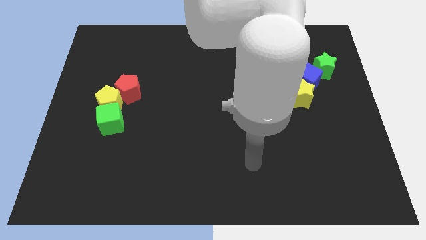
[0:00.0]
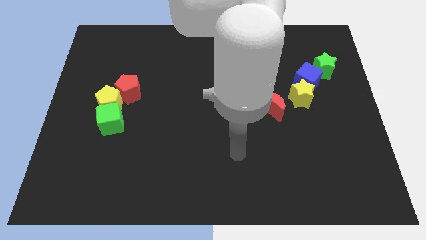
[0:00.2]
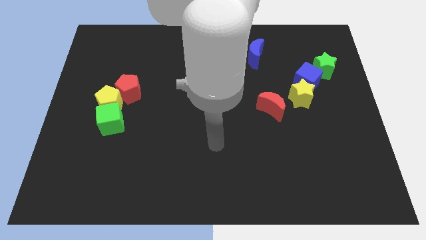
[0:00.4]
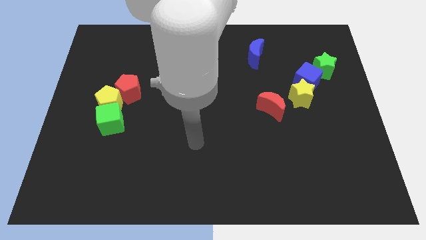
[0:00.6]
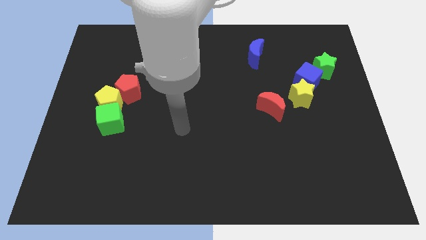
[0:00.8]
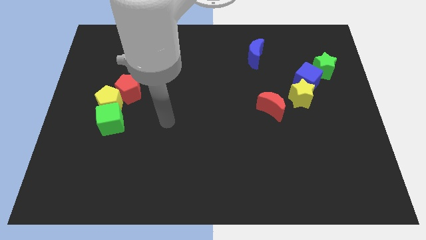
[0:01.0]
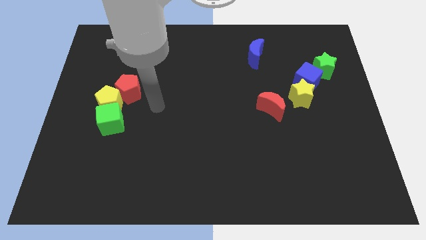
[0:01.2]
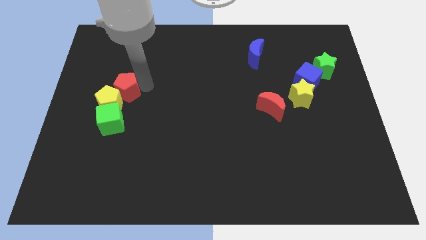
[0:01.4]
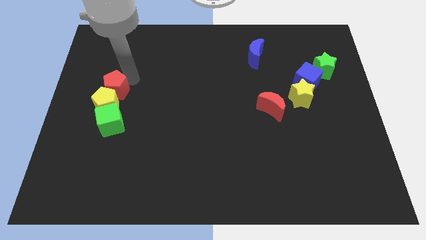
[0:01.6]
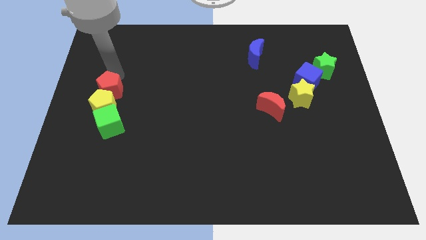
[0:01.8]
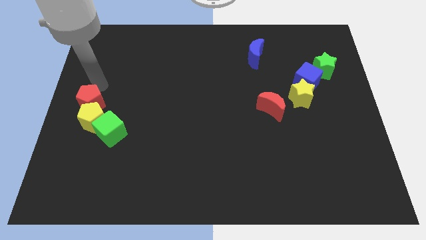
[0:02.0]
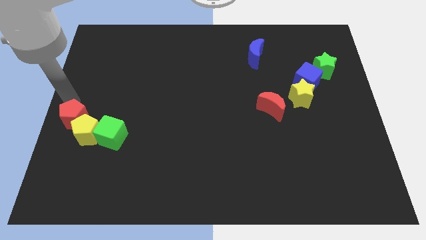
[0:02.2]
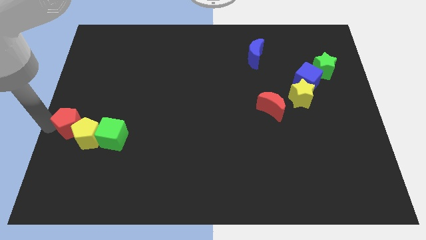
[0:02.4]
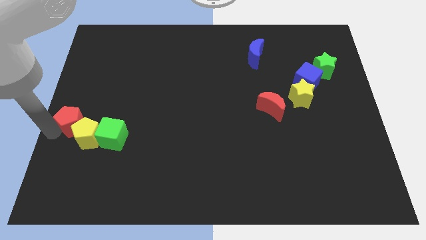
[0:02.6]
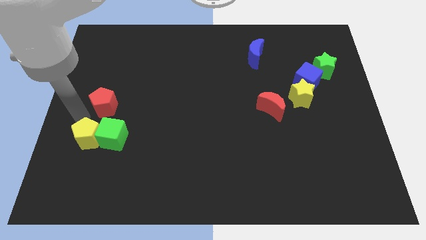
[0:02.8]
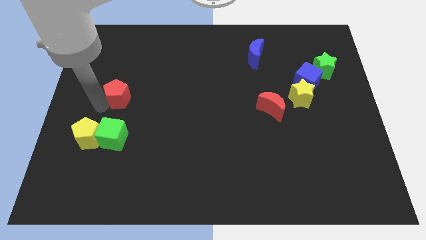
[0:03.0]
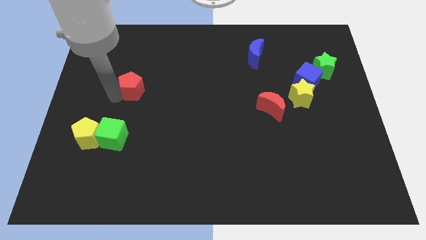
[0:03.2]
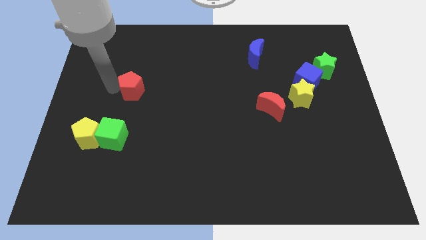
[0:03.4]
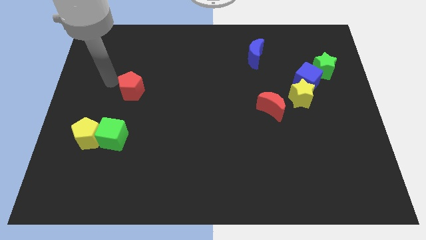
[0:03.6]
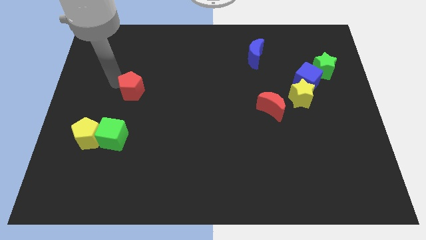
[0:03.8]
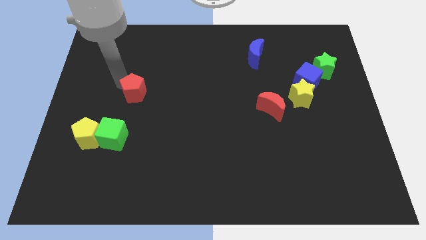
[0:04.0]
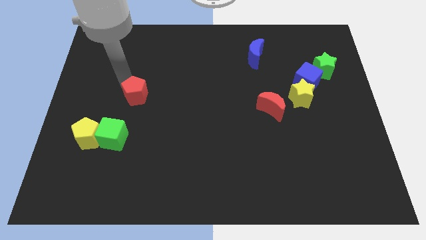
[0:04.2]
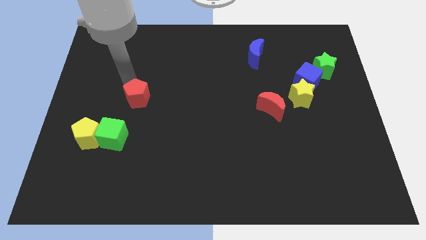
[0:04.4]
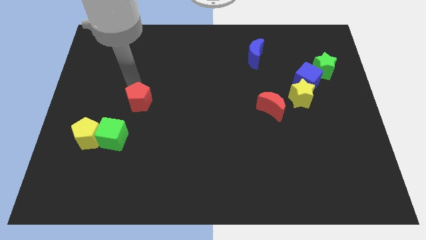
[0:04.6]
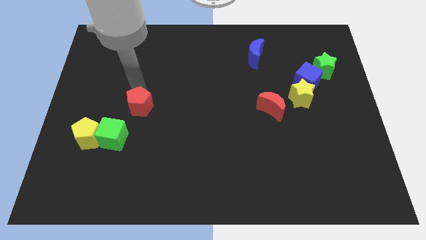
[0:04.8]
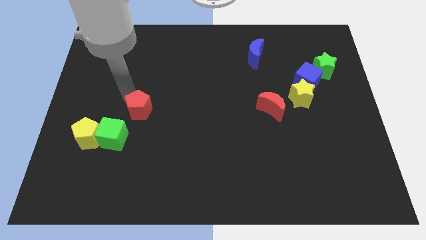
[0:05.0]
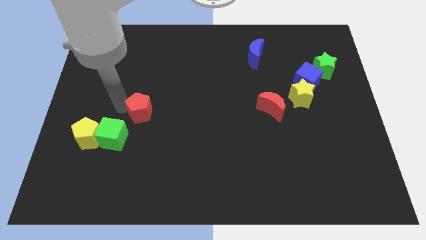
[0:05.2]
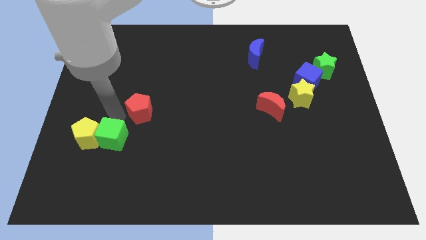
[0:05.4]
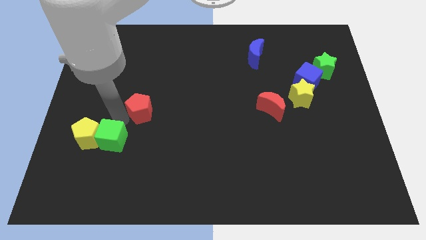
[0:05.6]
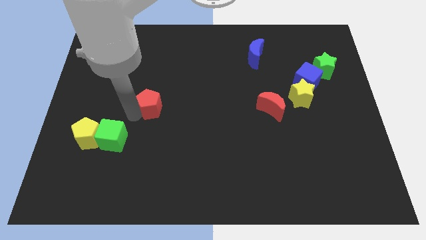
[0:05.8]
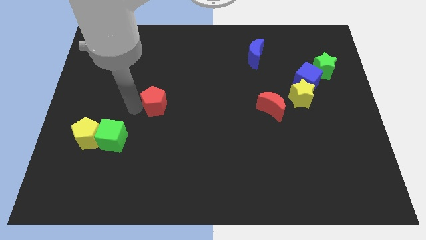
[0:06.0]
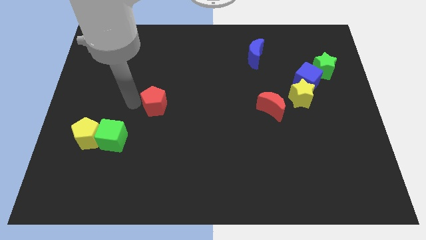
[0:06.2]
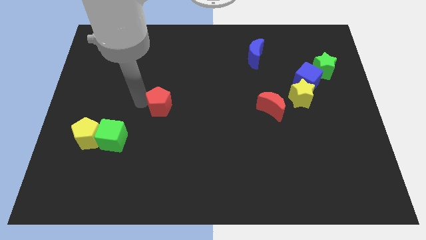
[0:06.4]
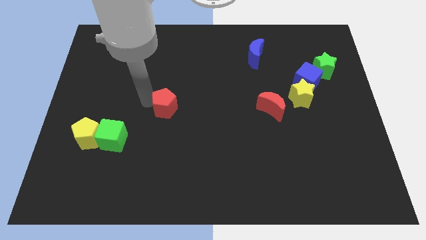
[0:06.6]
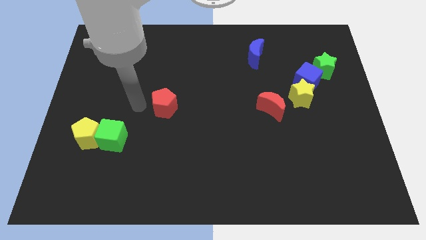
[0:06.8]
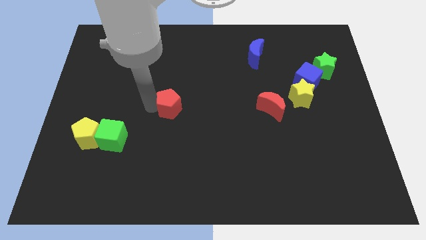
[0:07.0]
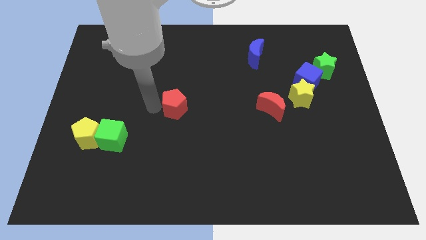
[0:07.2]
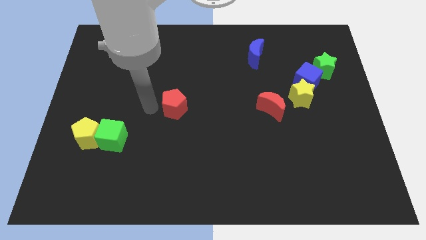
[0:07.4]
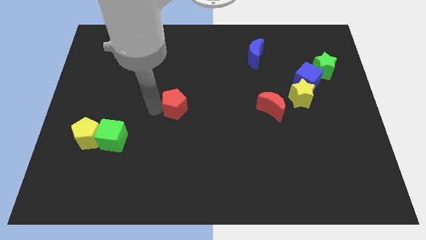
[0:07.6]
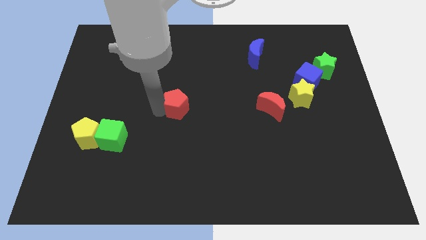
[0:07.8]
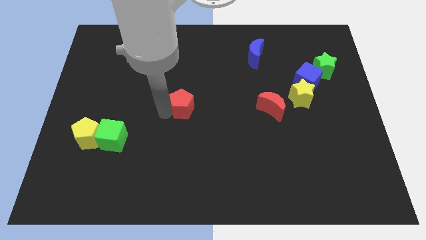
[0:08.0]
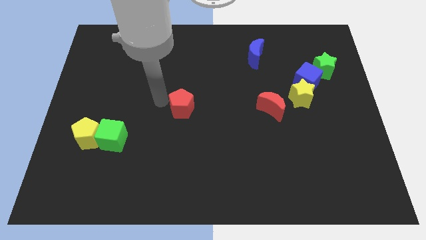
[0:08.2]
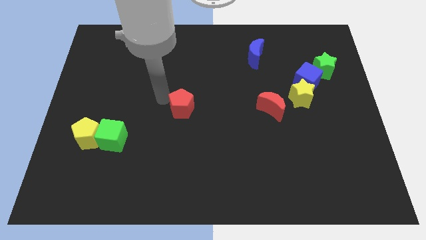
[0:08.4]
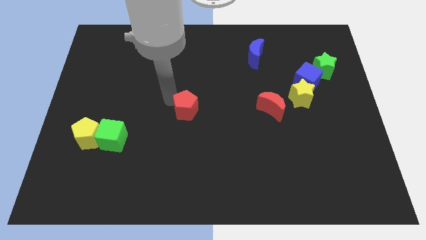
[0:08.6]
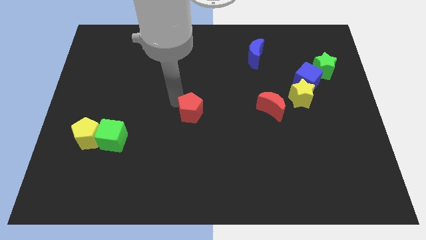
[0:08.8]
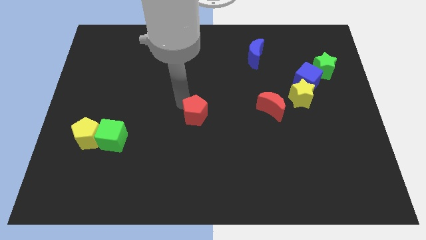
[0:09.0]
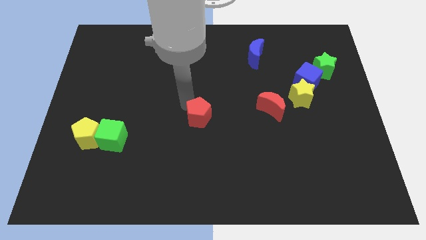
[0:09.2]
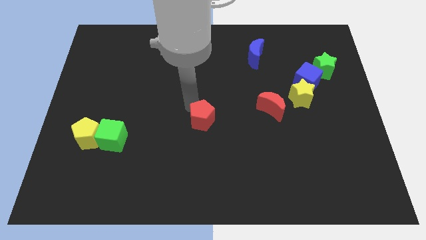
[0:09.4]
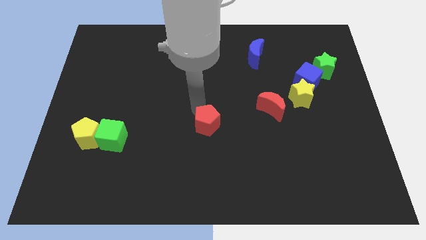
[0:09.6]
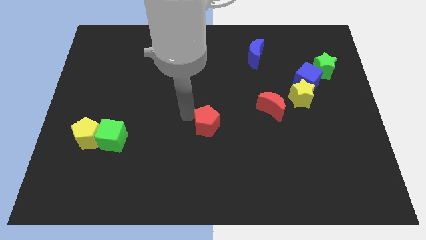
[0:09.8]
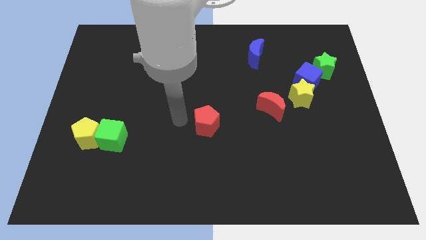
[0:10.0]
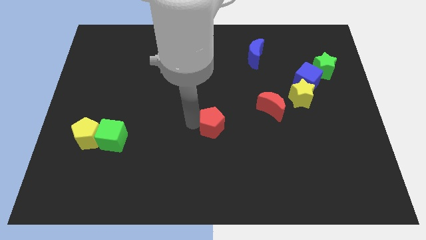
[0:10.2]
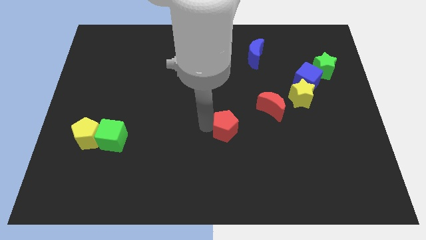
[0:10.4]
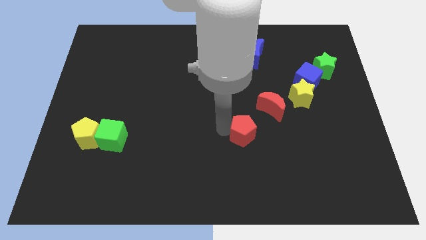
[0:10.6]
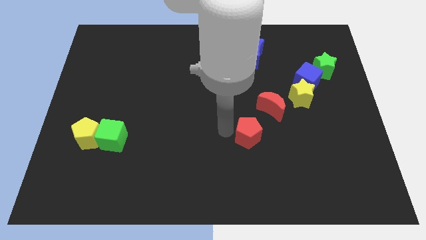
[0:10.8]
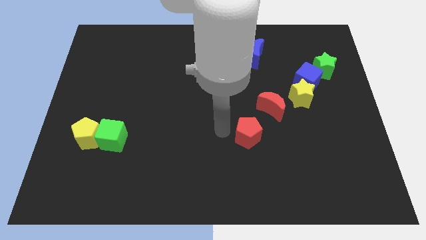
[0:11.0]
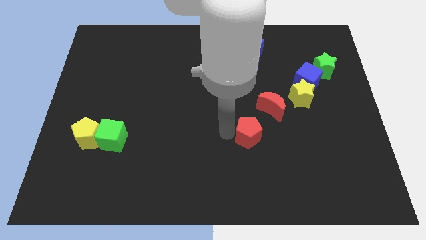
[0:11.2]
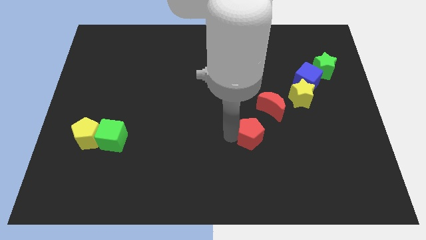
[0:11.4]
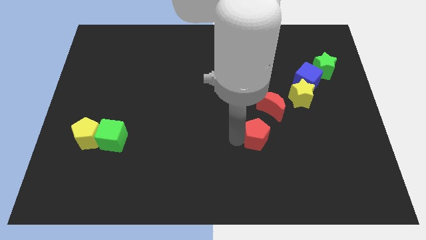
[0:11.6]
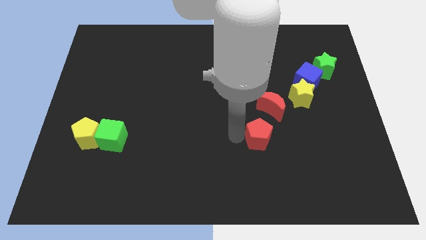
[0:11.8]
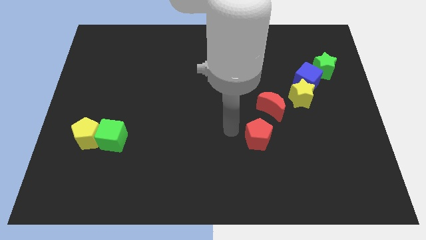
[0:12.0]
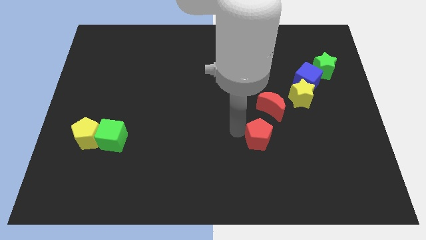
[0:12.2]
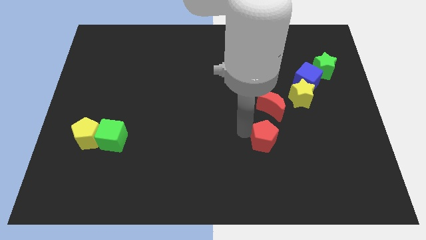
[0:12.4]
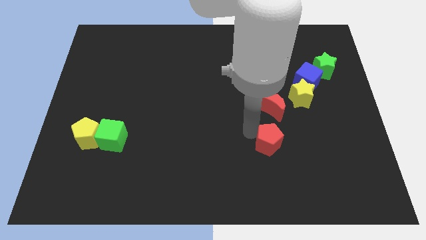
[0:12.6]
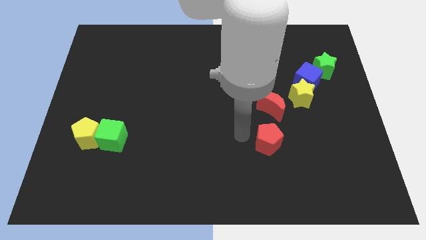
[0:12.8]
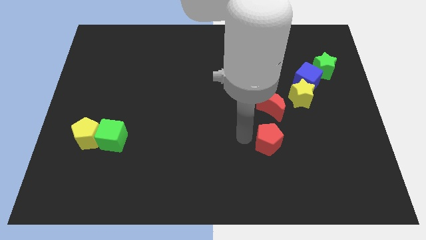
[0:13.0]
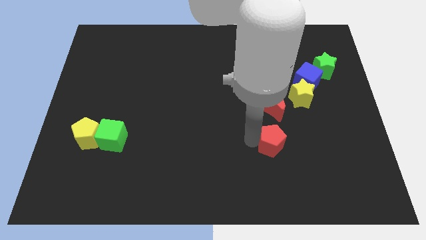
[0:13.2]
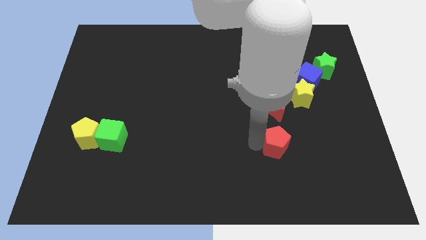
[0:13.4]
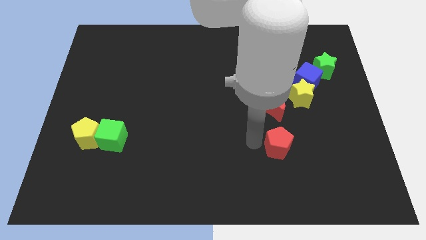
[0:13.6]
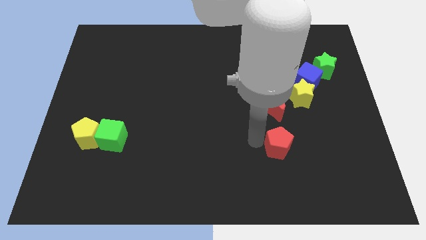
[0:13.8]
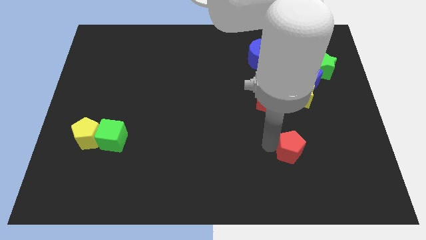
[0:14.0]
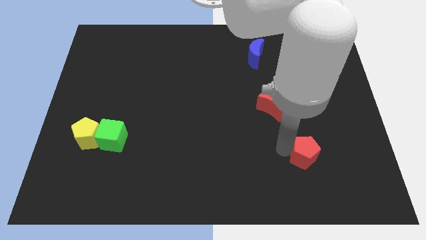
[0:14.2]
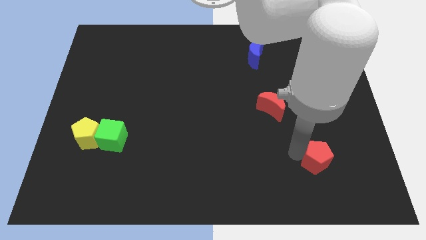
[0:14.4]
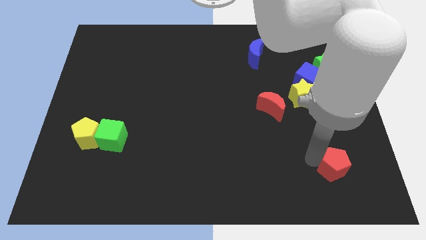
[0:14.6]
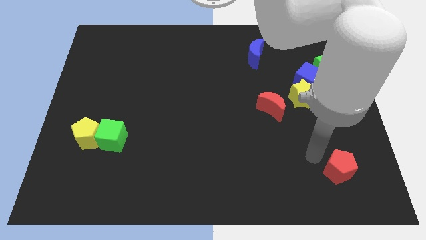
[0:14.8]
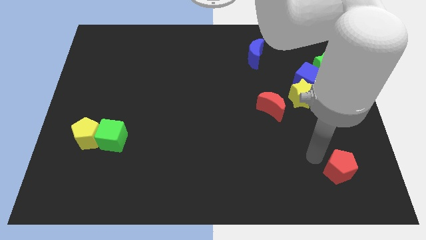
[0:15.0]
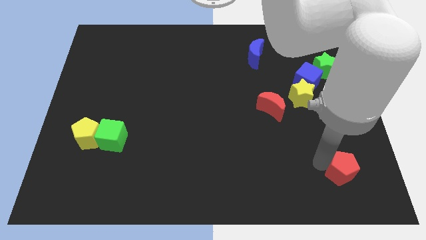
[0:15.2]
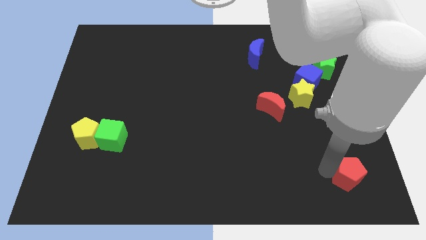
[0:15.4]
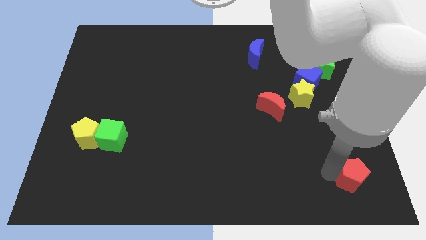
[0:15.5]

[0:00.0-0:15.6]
put the red pentagon to the bottom right corner
